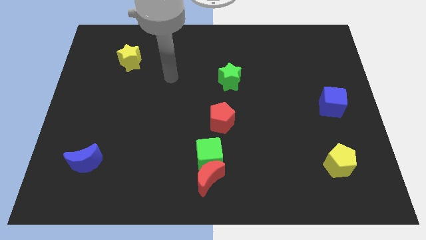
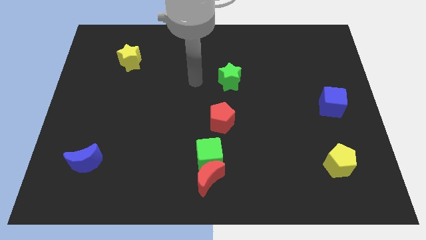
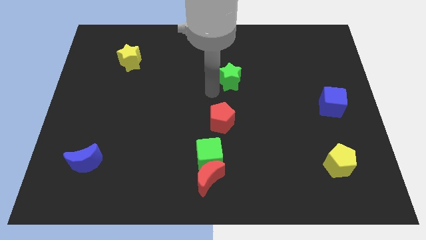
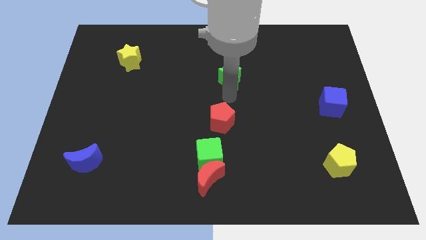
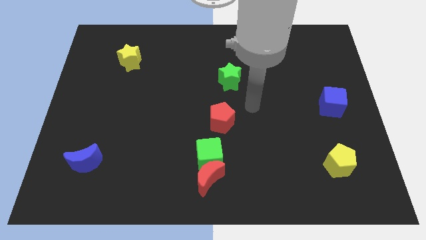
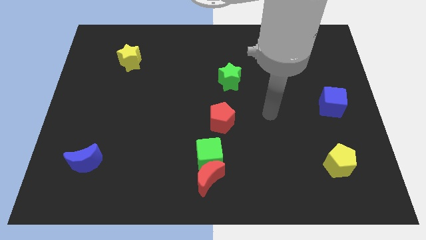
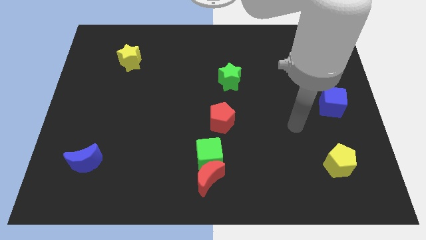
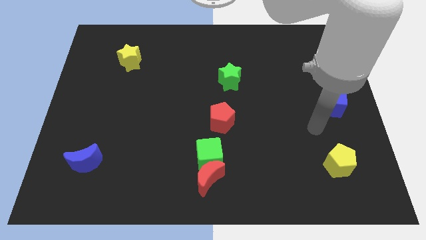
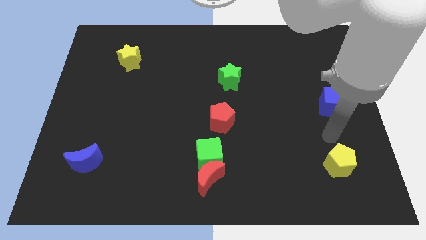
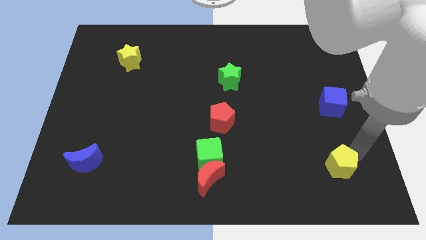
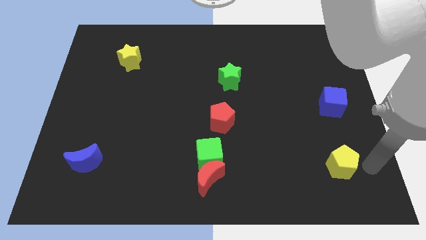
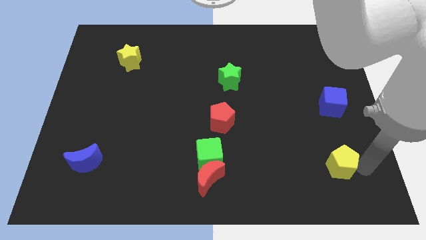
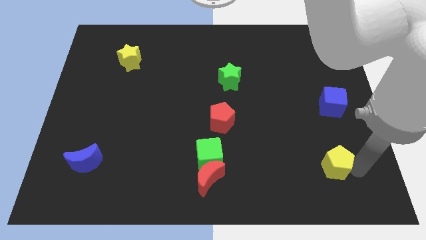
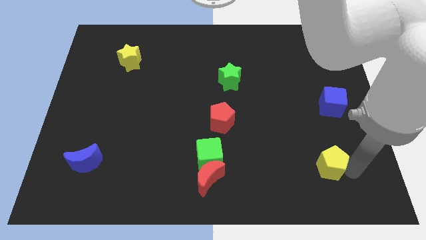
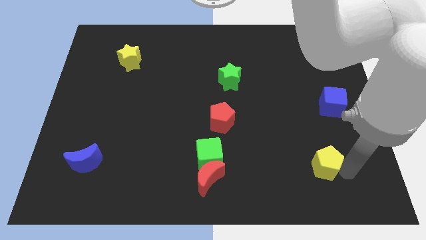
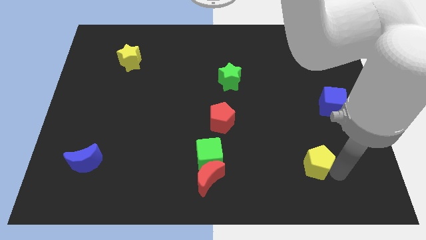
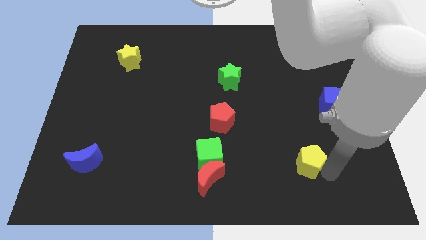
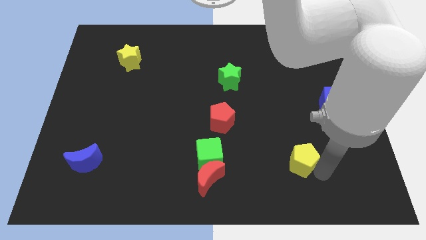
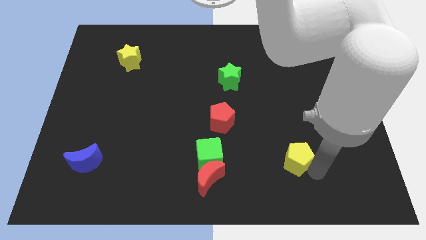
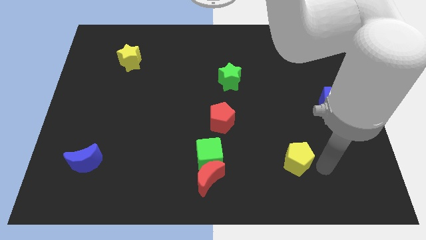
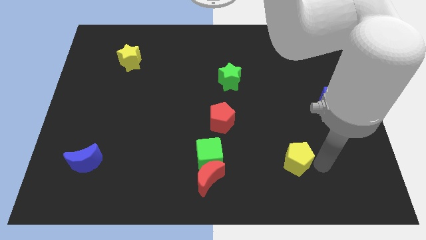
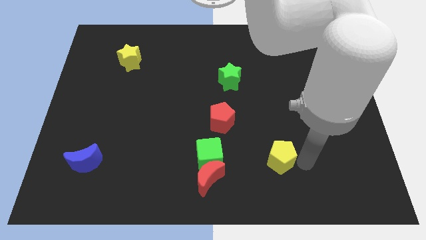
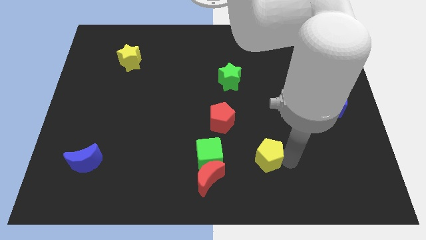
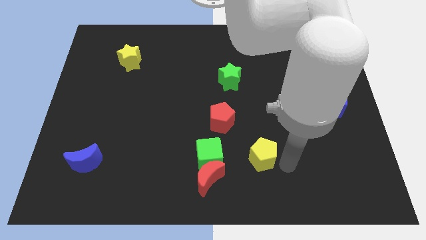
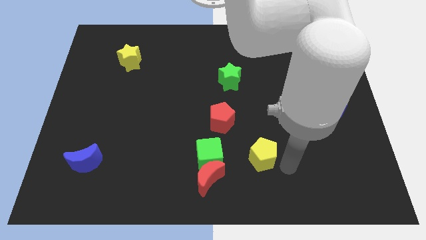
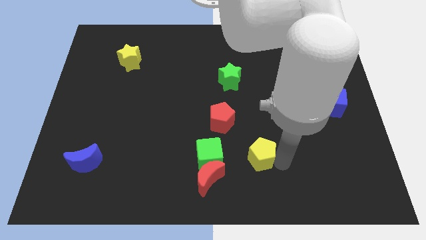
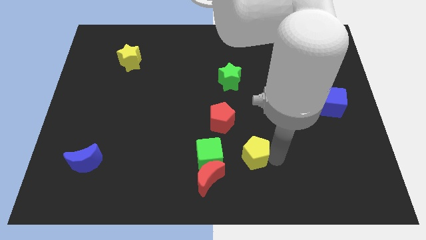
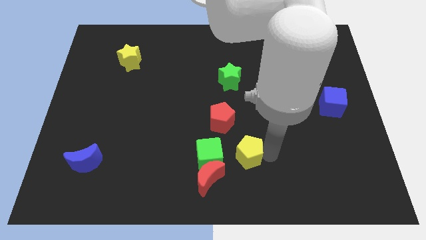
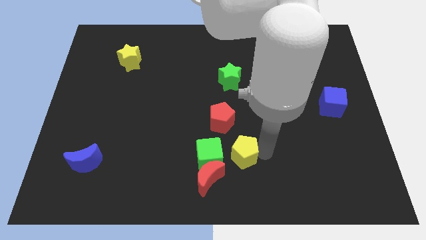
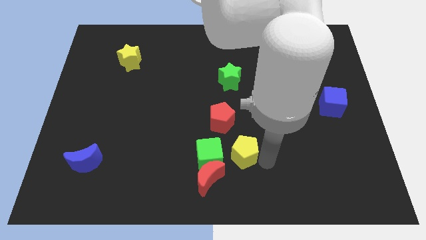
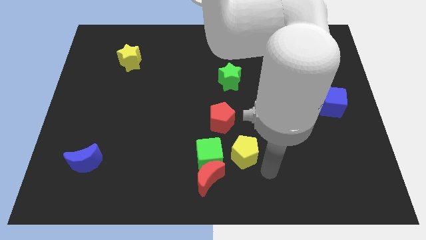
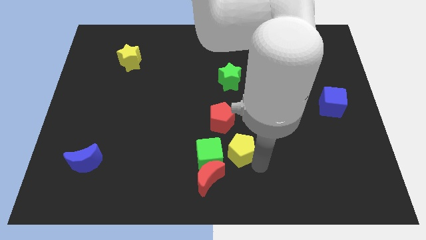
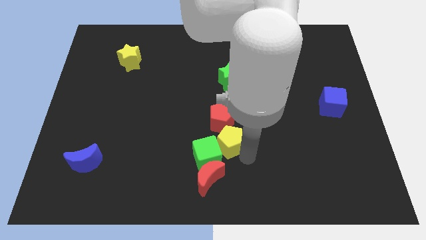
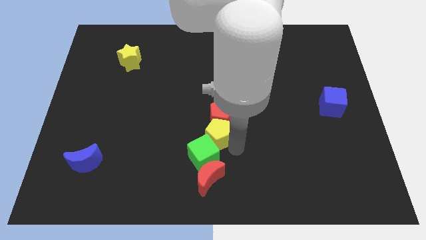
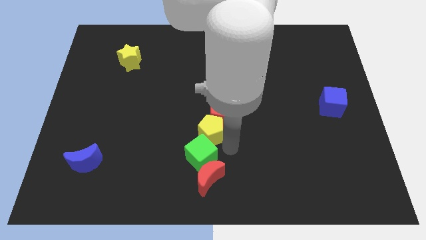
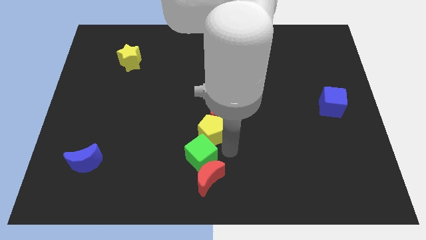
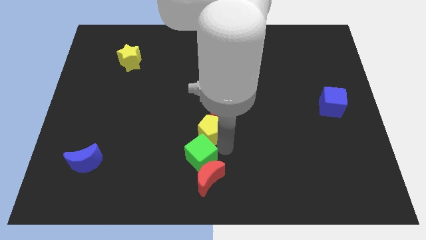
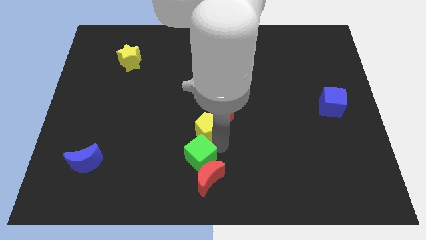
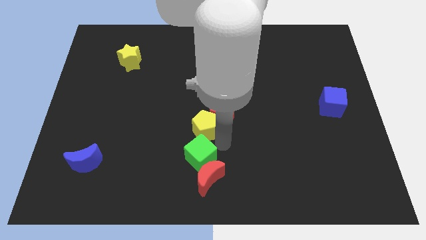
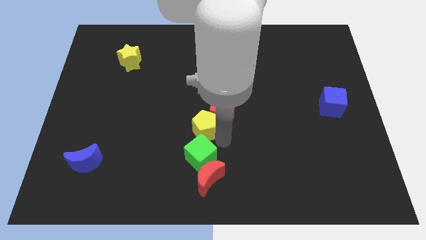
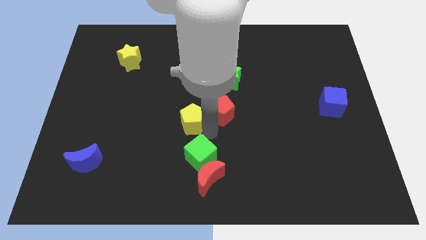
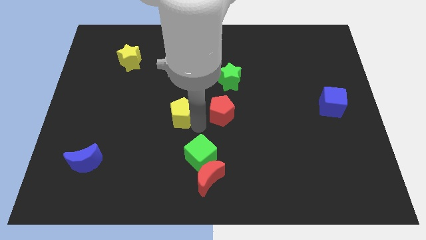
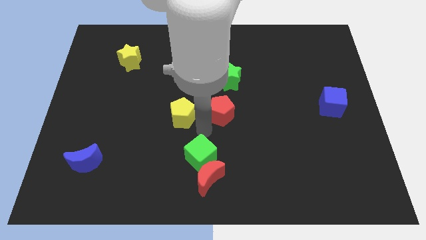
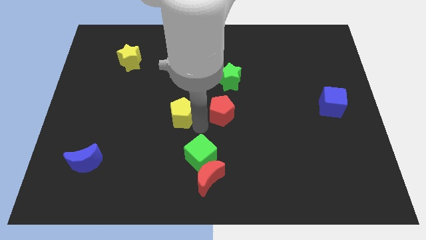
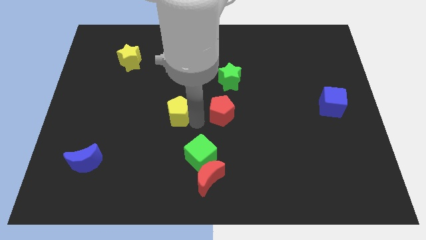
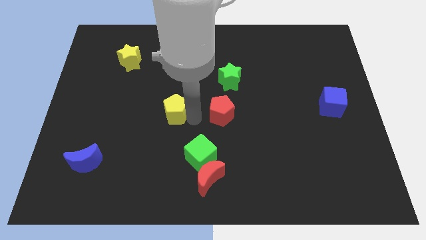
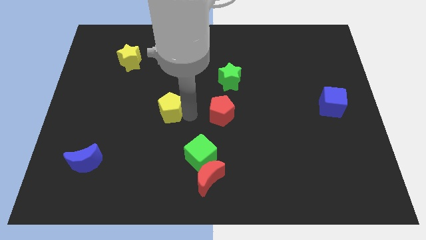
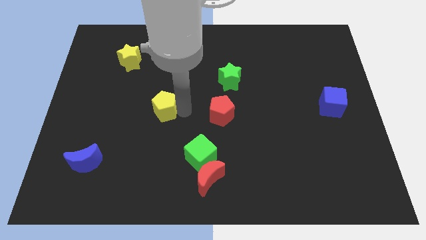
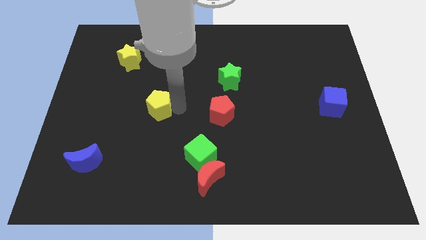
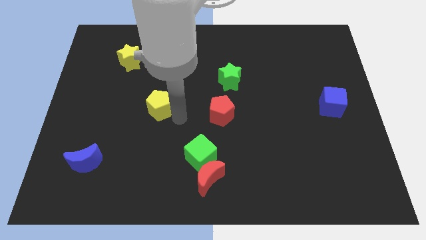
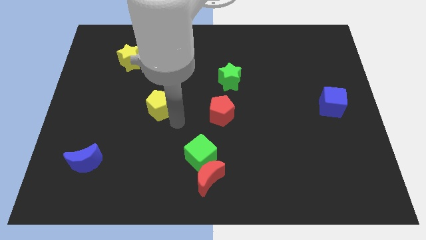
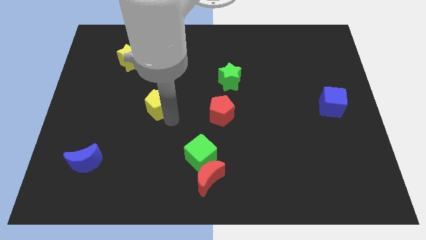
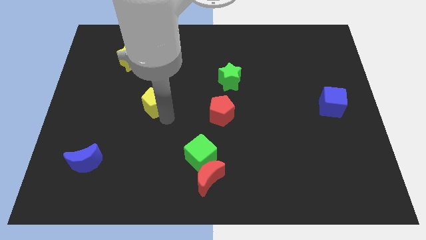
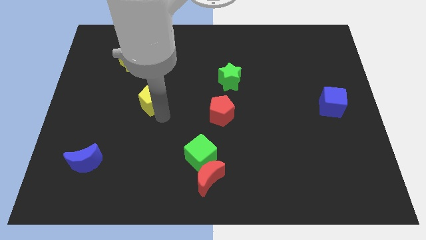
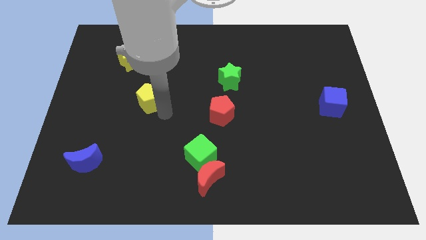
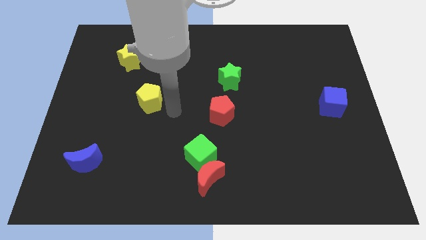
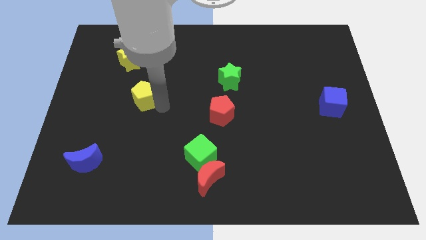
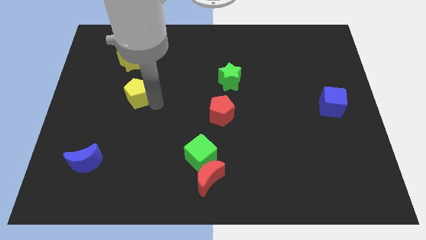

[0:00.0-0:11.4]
slide the yellow pentagon to the bottom side of the yellow star
